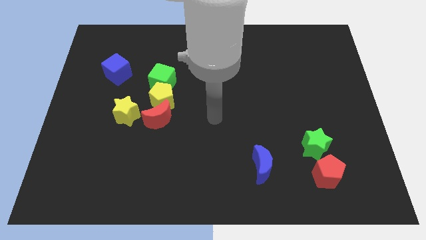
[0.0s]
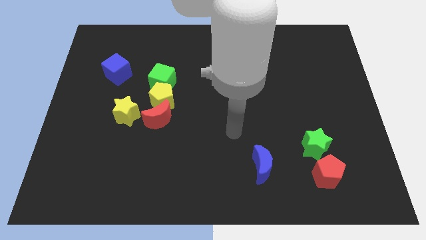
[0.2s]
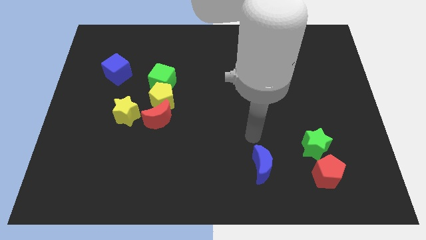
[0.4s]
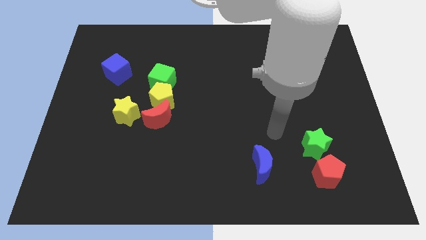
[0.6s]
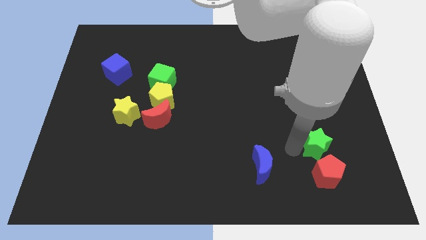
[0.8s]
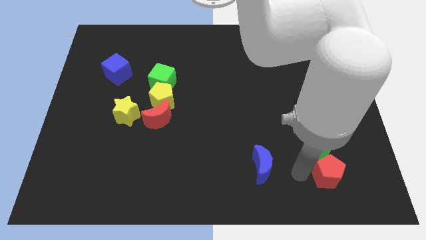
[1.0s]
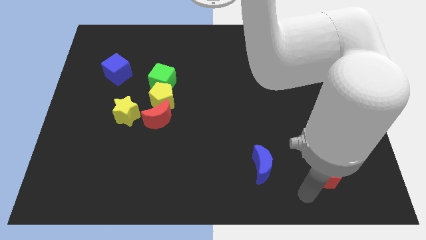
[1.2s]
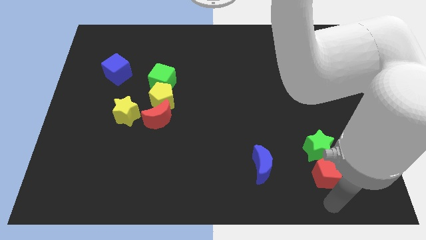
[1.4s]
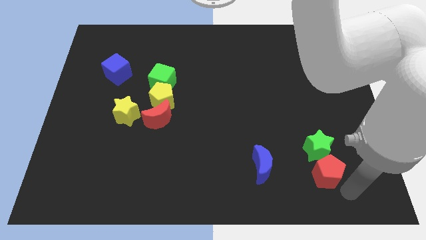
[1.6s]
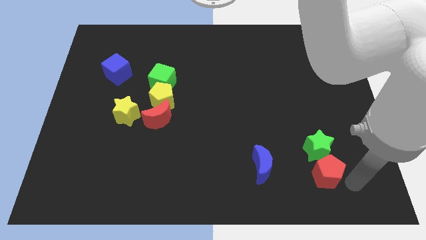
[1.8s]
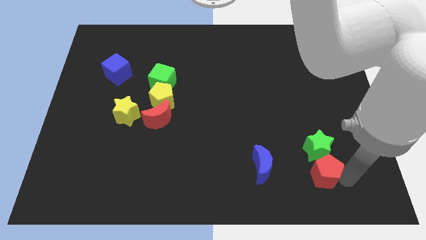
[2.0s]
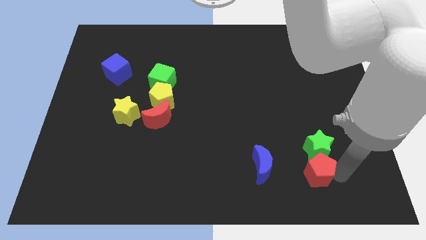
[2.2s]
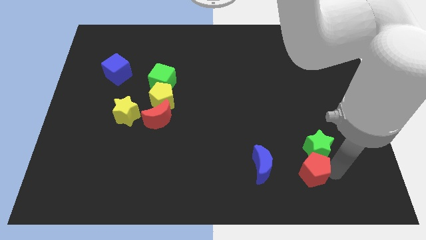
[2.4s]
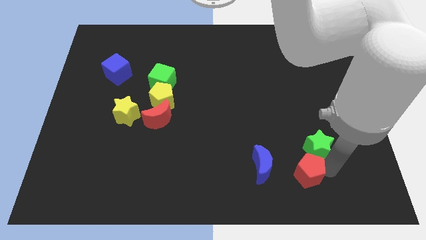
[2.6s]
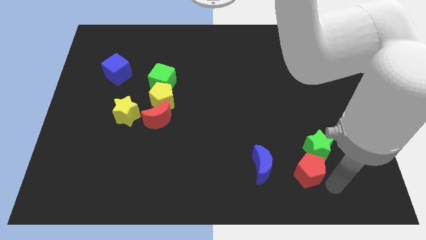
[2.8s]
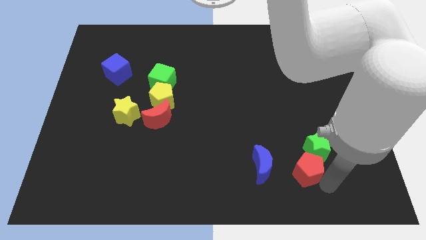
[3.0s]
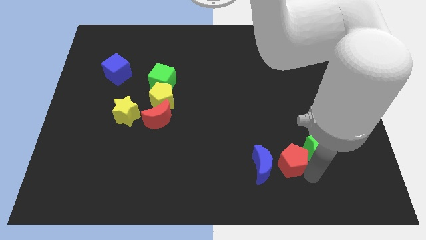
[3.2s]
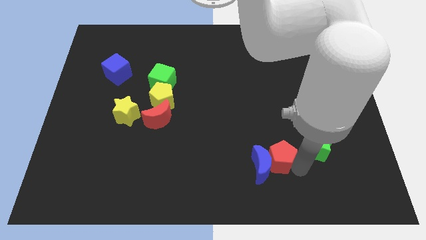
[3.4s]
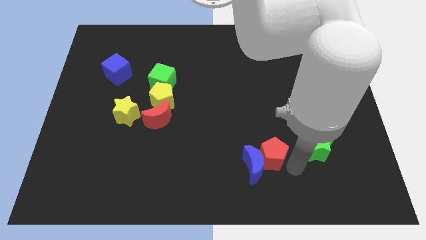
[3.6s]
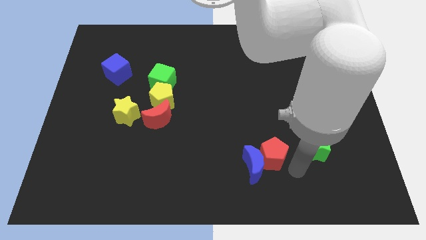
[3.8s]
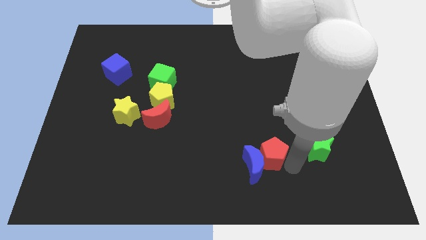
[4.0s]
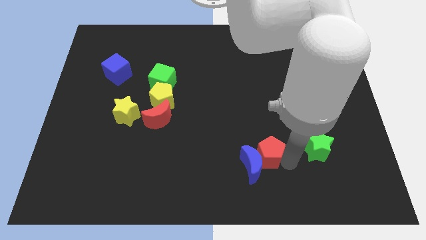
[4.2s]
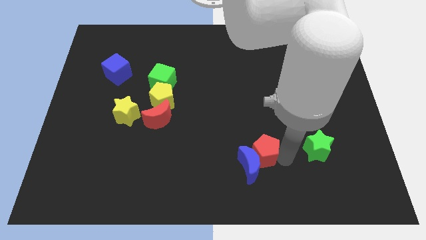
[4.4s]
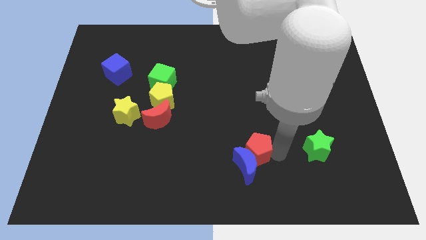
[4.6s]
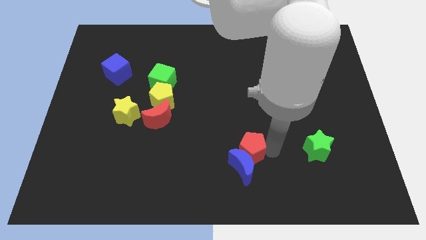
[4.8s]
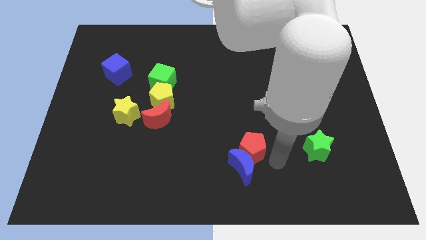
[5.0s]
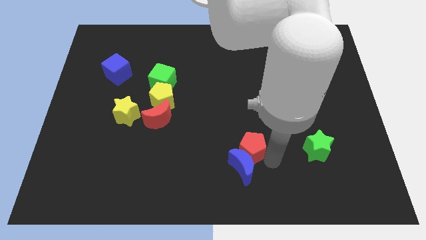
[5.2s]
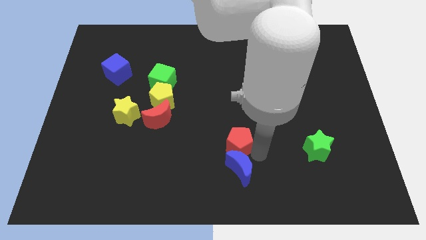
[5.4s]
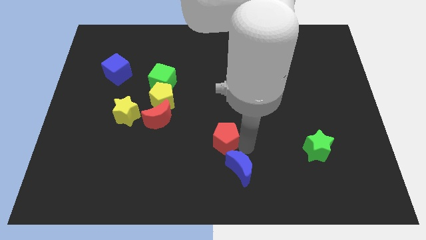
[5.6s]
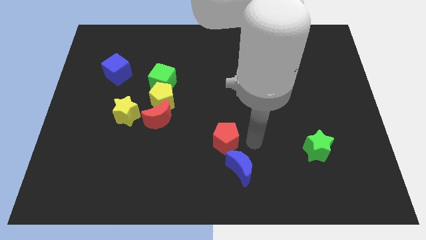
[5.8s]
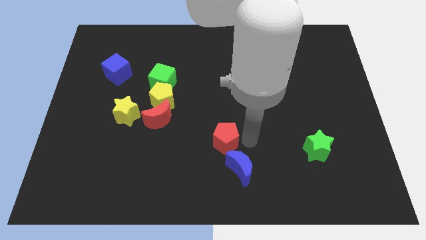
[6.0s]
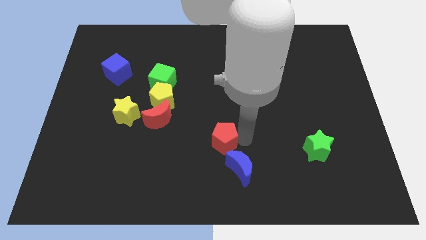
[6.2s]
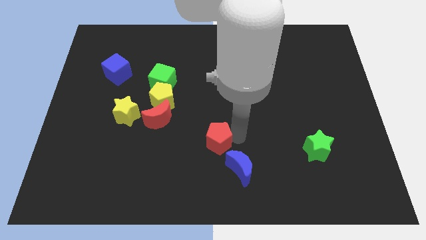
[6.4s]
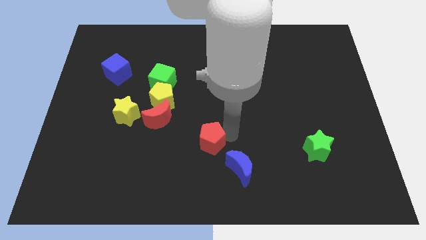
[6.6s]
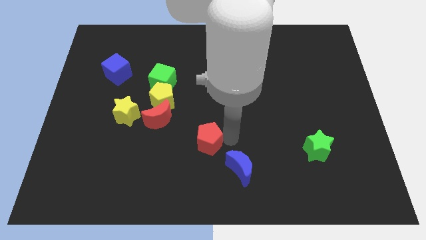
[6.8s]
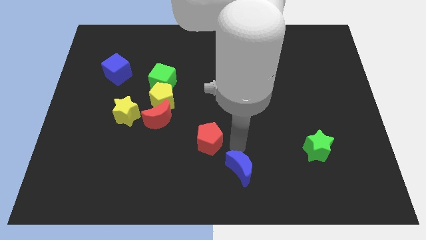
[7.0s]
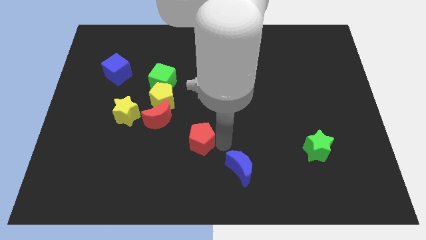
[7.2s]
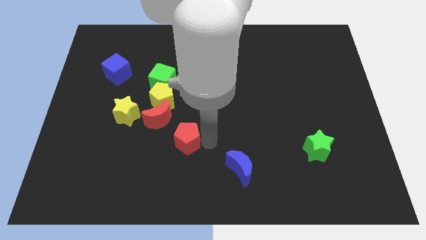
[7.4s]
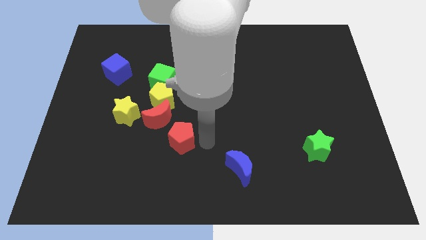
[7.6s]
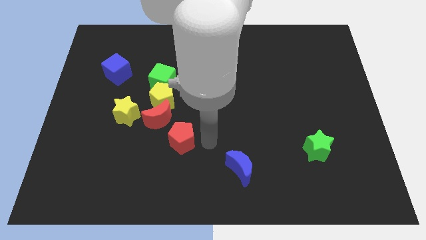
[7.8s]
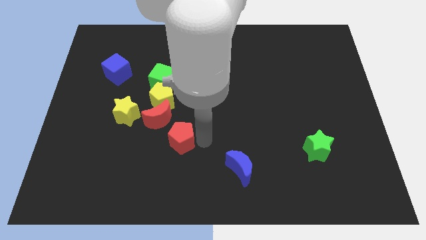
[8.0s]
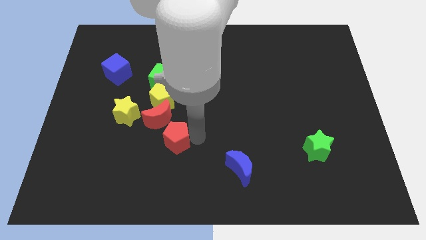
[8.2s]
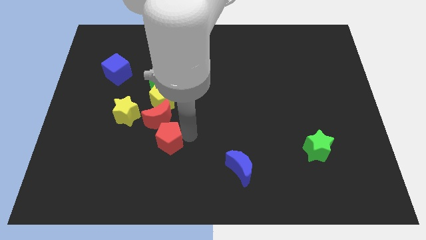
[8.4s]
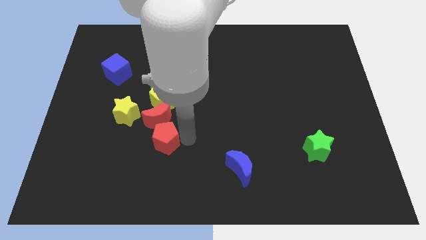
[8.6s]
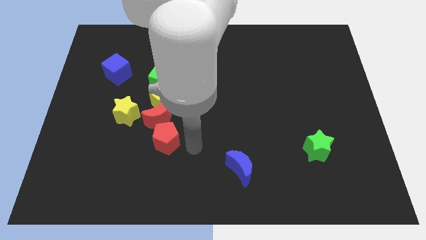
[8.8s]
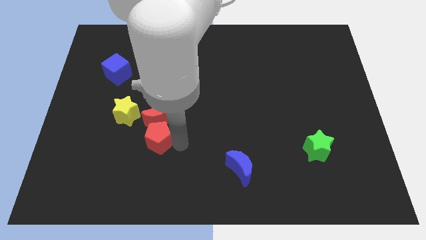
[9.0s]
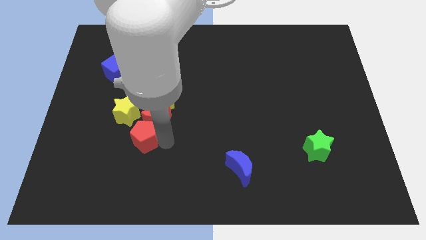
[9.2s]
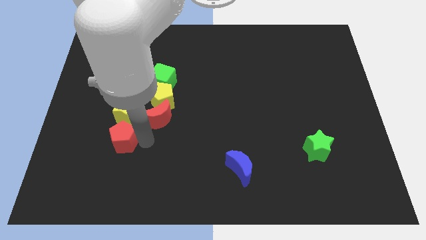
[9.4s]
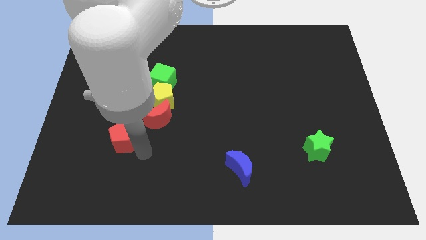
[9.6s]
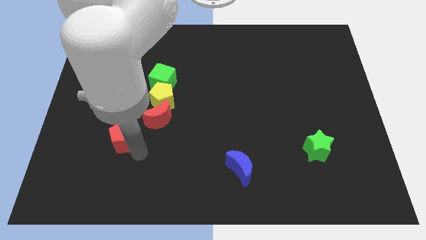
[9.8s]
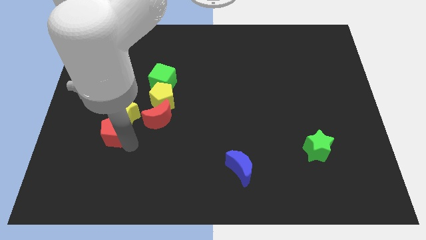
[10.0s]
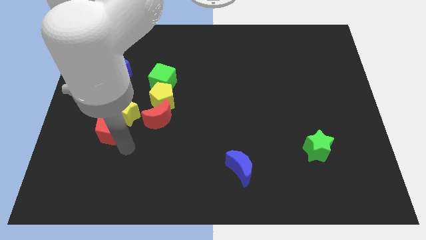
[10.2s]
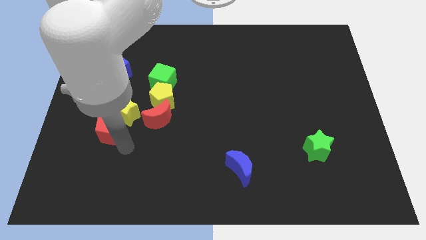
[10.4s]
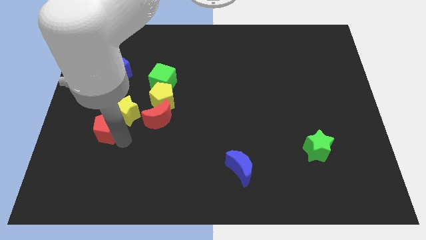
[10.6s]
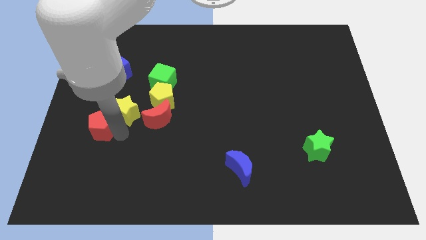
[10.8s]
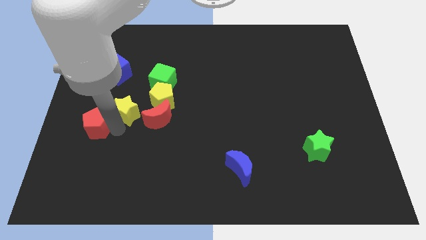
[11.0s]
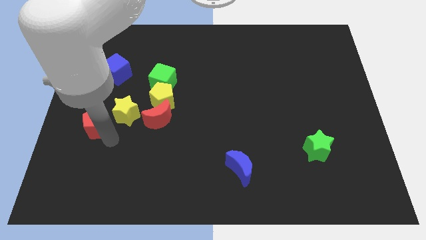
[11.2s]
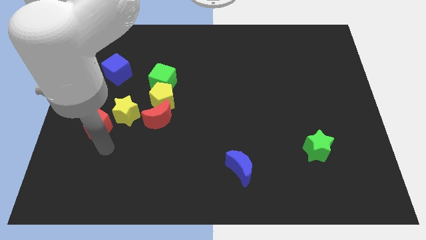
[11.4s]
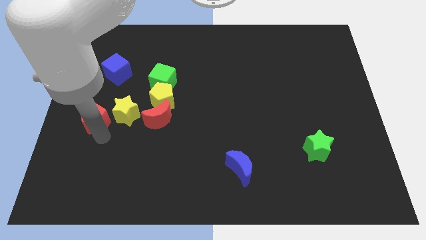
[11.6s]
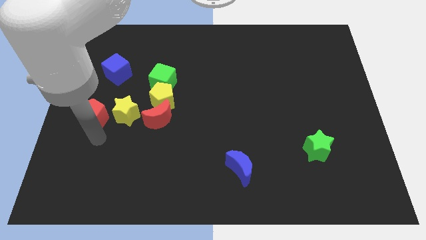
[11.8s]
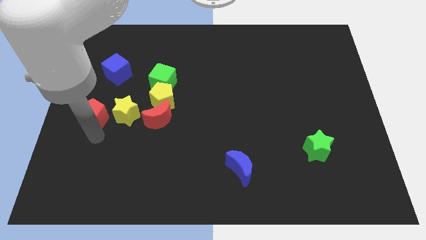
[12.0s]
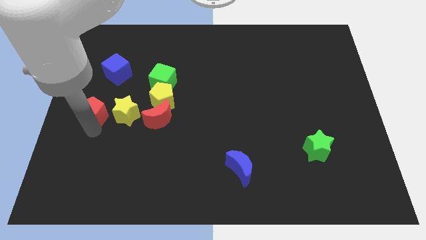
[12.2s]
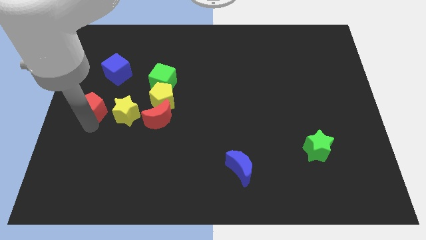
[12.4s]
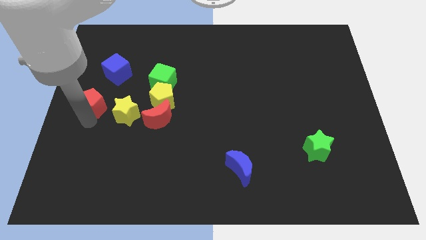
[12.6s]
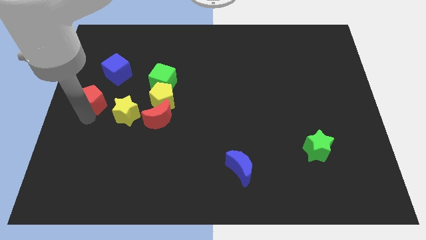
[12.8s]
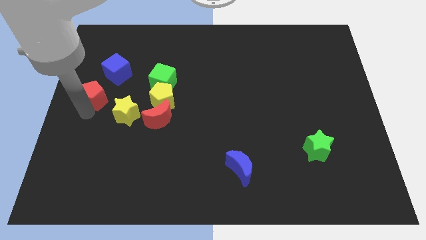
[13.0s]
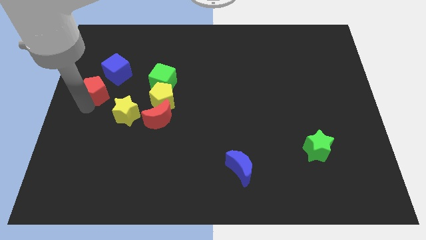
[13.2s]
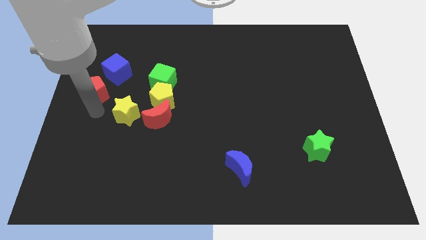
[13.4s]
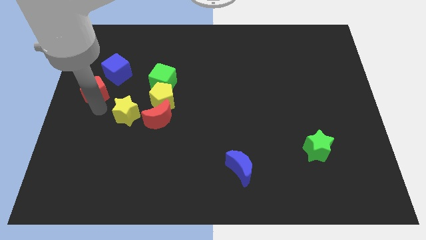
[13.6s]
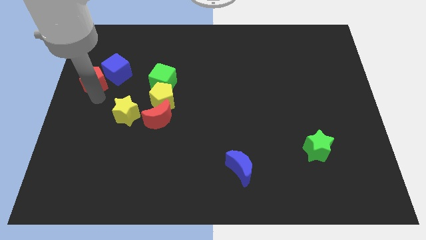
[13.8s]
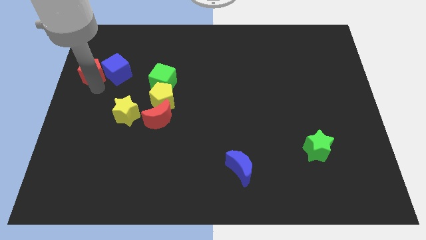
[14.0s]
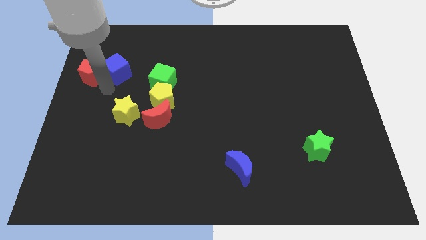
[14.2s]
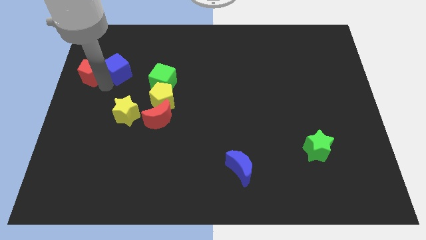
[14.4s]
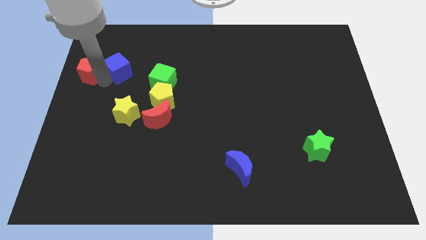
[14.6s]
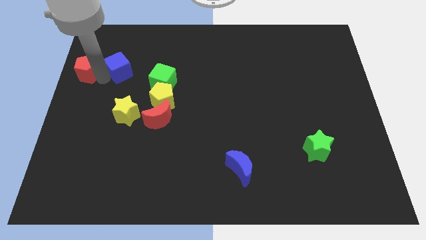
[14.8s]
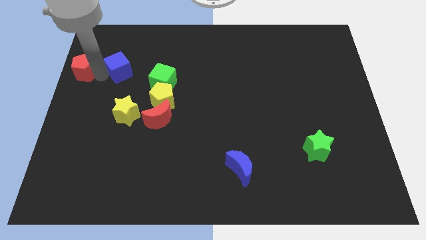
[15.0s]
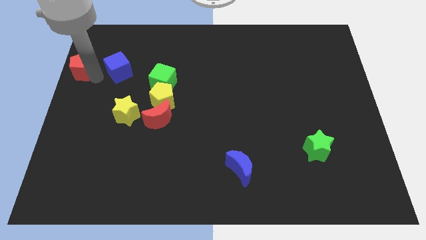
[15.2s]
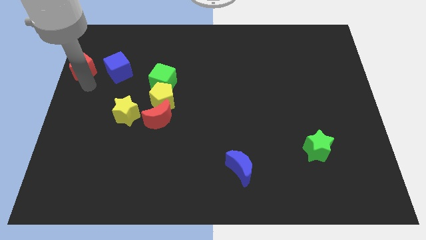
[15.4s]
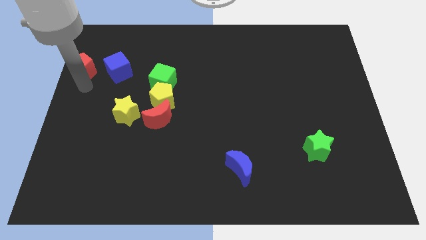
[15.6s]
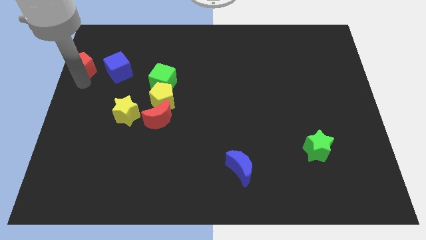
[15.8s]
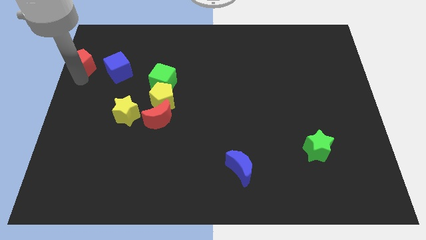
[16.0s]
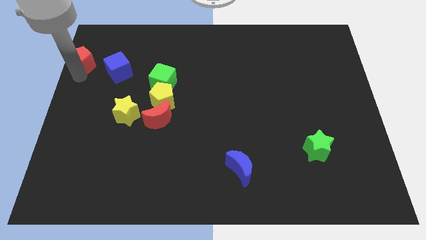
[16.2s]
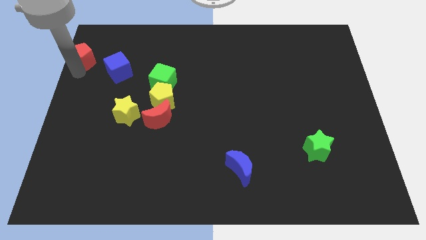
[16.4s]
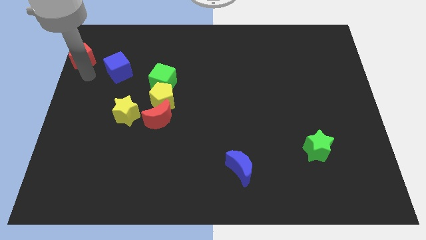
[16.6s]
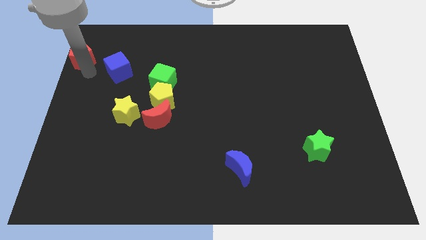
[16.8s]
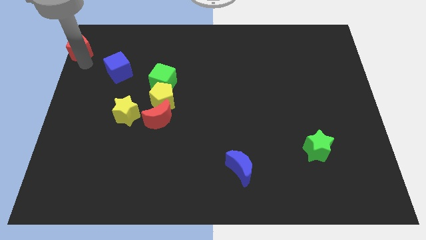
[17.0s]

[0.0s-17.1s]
push the red pentagon to the top left corner
